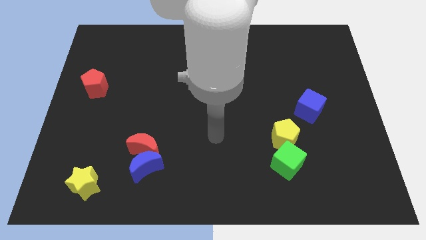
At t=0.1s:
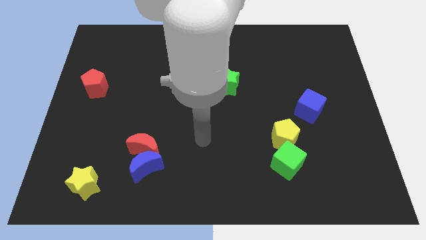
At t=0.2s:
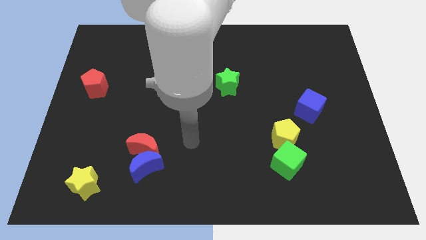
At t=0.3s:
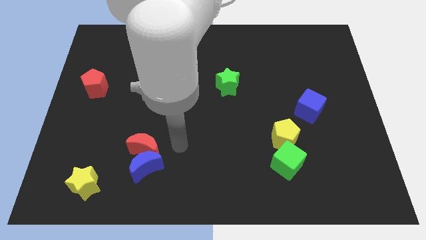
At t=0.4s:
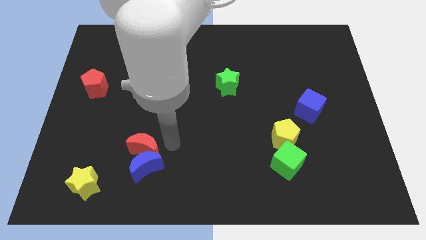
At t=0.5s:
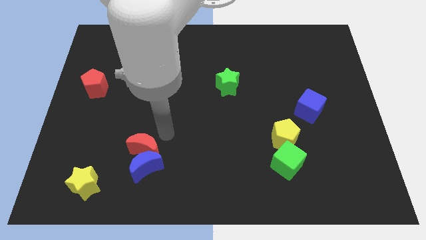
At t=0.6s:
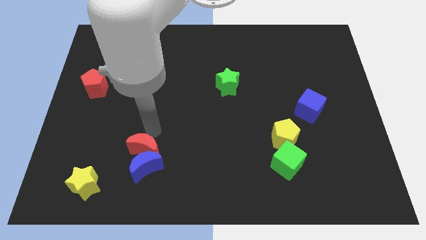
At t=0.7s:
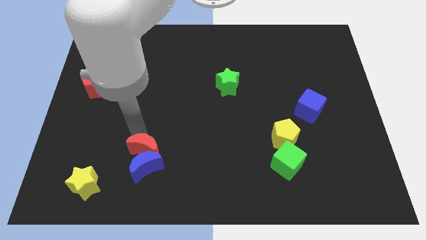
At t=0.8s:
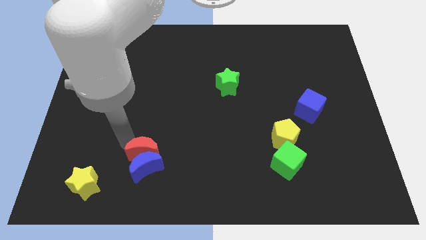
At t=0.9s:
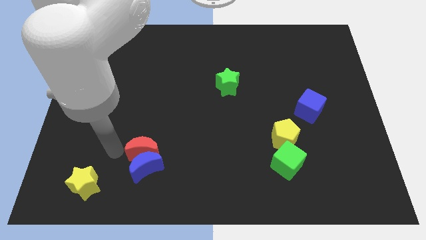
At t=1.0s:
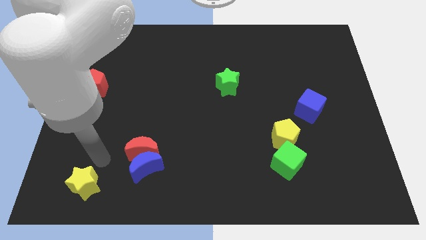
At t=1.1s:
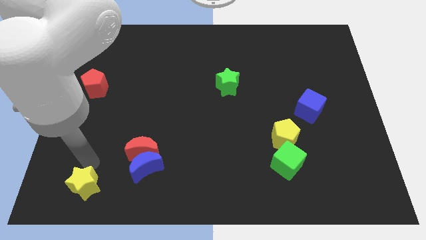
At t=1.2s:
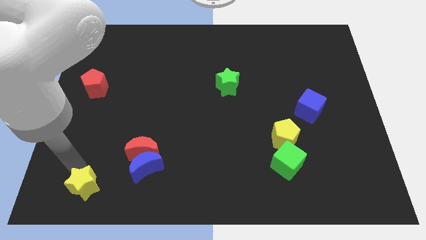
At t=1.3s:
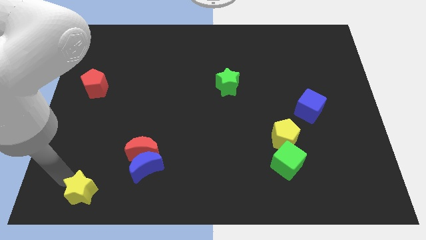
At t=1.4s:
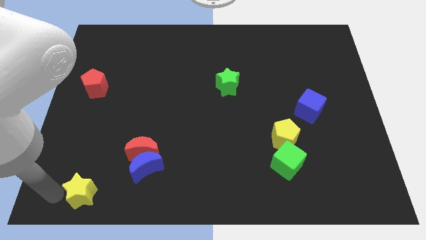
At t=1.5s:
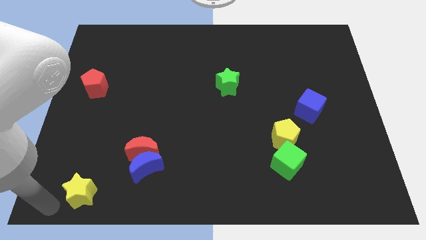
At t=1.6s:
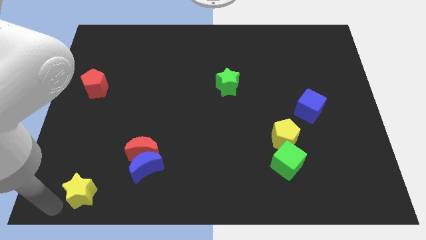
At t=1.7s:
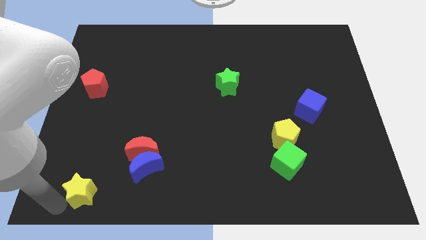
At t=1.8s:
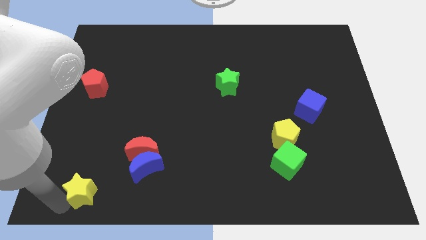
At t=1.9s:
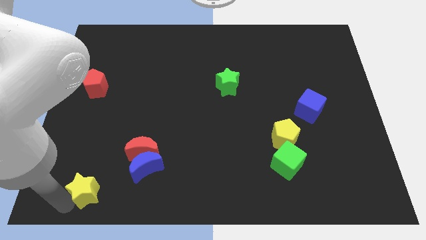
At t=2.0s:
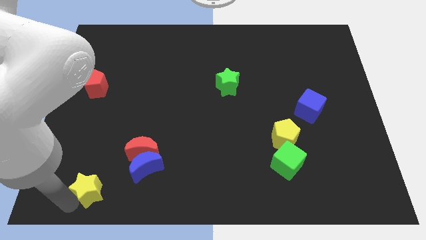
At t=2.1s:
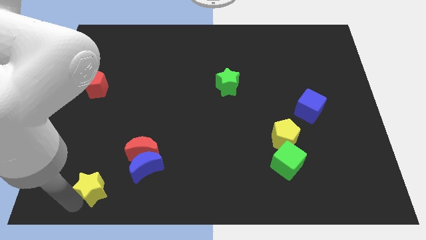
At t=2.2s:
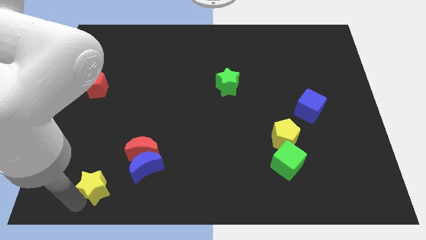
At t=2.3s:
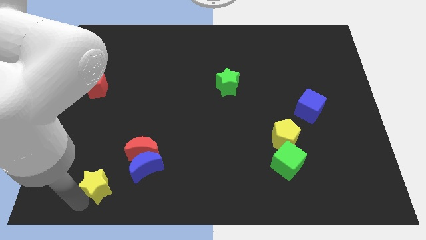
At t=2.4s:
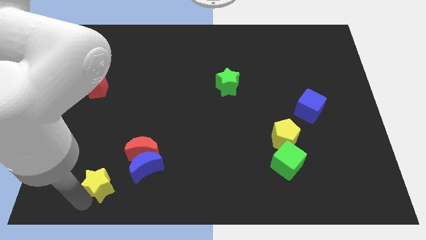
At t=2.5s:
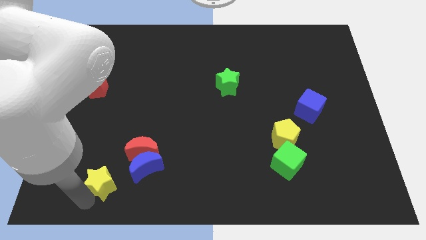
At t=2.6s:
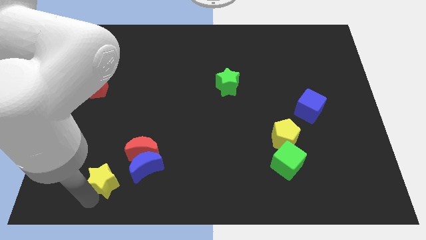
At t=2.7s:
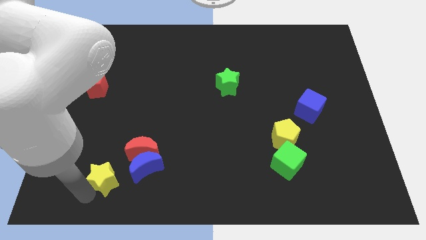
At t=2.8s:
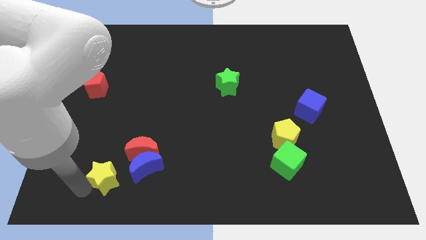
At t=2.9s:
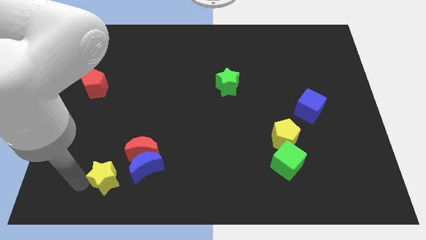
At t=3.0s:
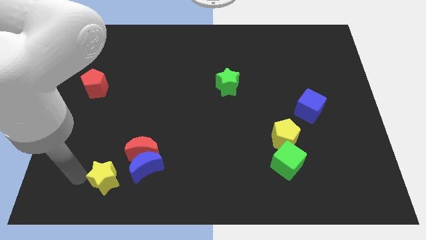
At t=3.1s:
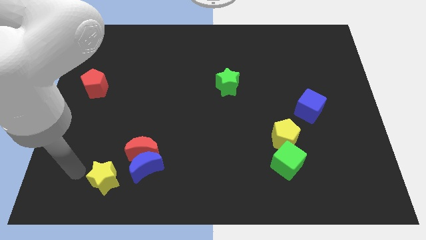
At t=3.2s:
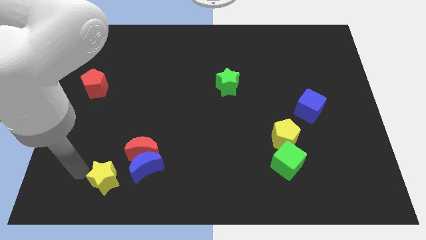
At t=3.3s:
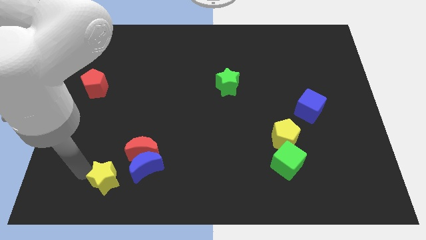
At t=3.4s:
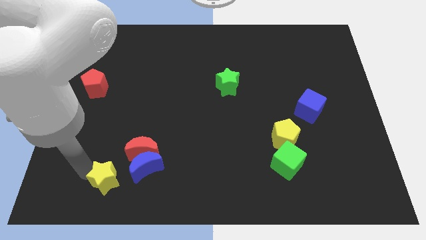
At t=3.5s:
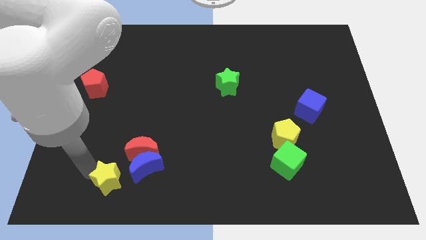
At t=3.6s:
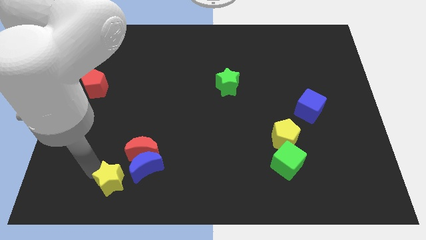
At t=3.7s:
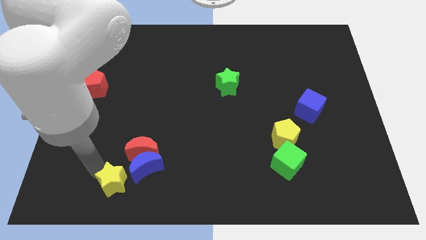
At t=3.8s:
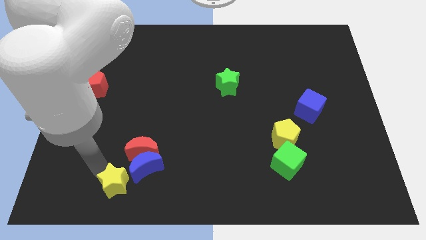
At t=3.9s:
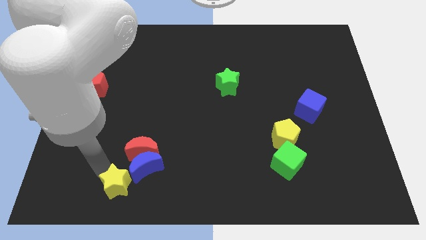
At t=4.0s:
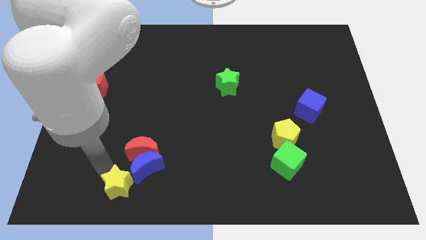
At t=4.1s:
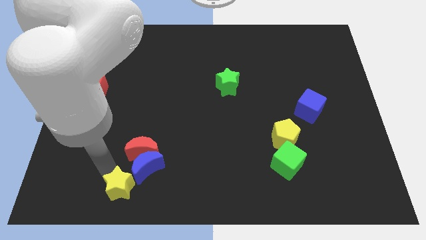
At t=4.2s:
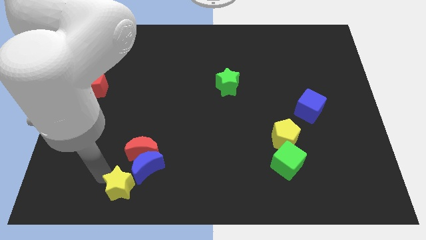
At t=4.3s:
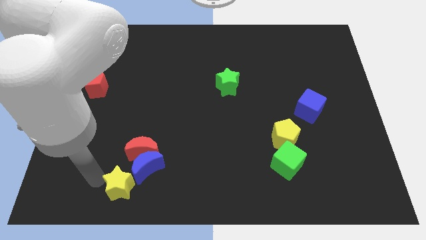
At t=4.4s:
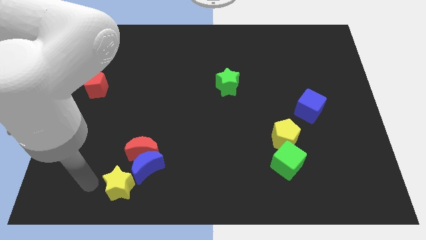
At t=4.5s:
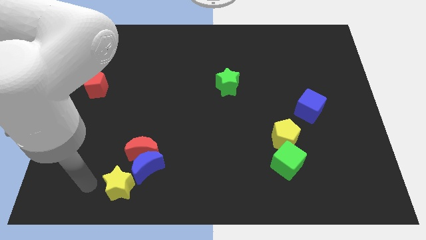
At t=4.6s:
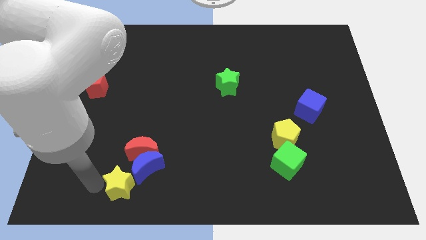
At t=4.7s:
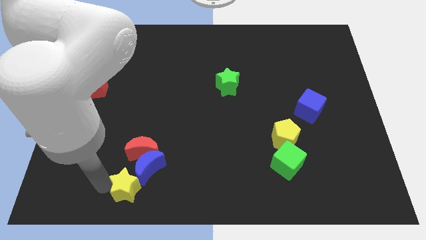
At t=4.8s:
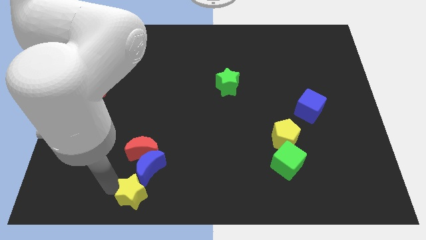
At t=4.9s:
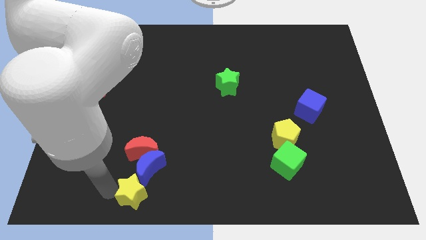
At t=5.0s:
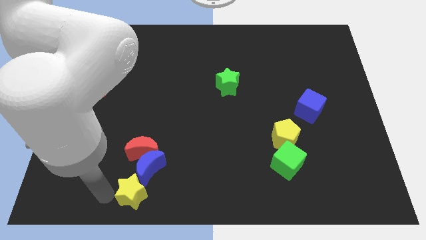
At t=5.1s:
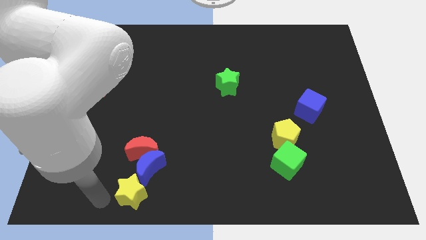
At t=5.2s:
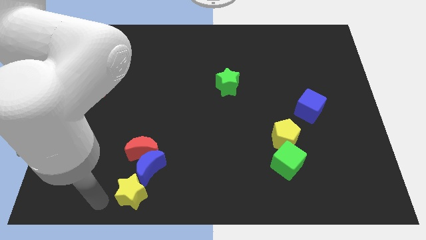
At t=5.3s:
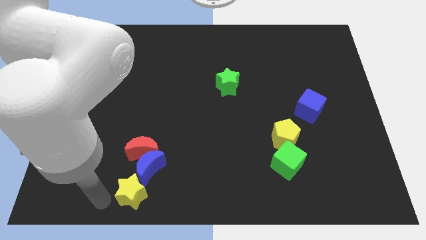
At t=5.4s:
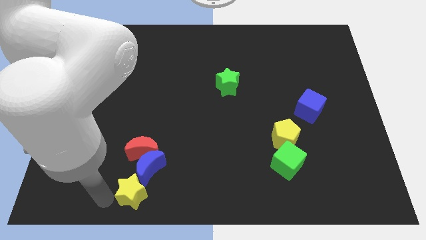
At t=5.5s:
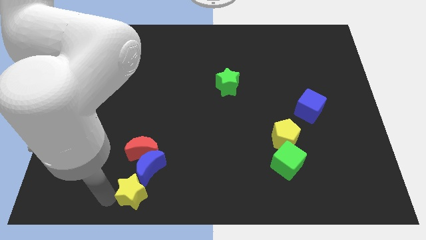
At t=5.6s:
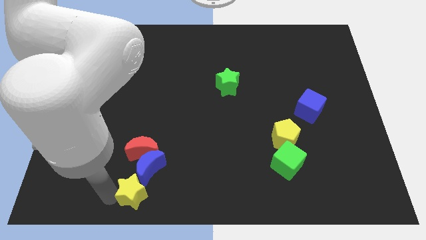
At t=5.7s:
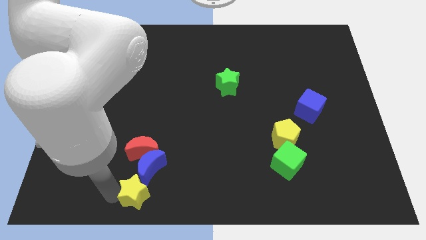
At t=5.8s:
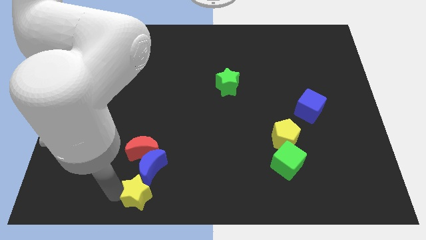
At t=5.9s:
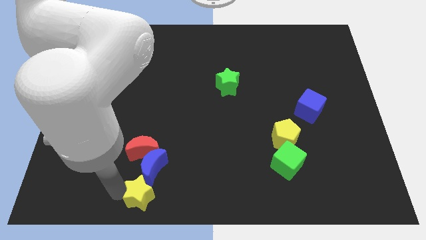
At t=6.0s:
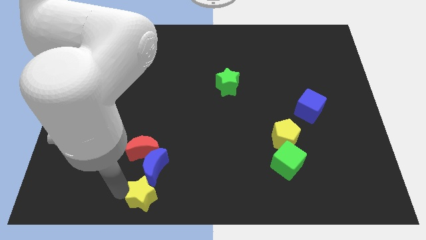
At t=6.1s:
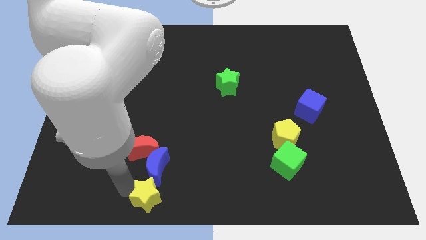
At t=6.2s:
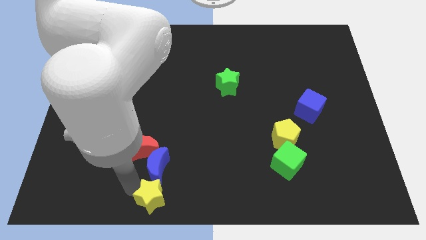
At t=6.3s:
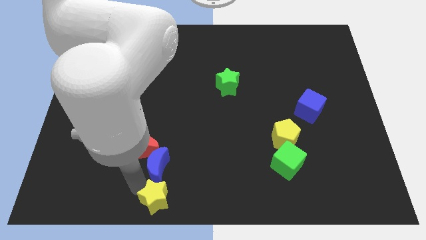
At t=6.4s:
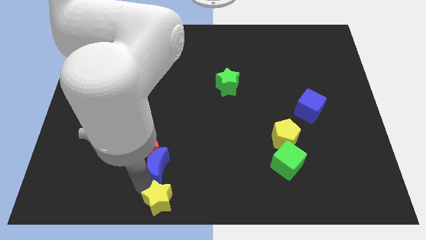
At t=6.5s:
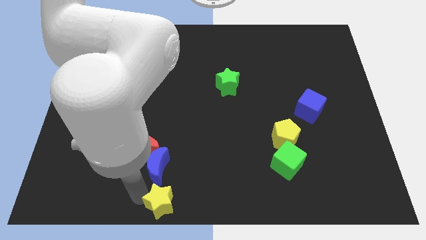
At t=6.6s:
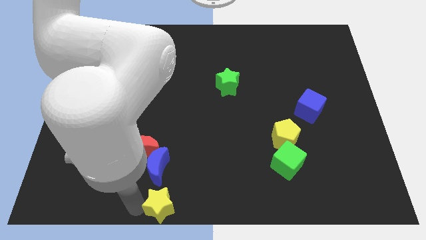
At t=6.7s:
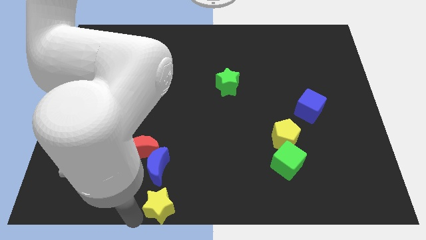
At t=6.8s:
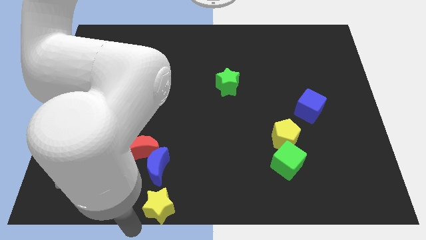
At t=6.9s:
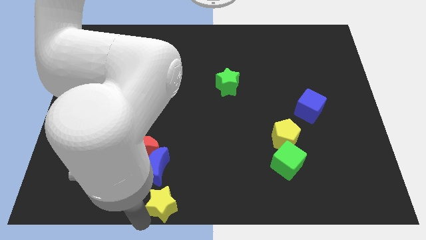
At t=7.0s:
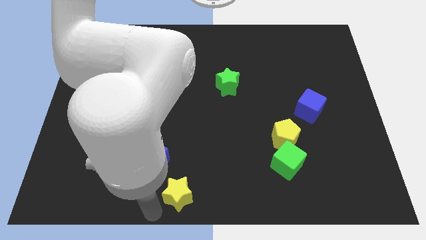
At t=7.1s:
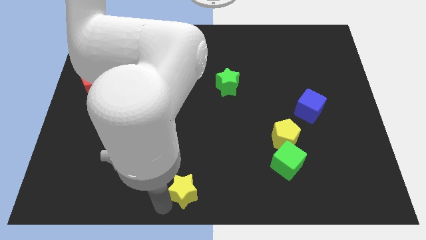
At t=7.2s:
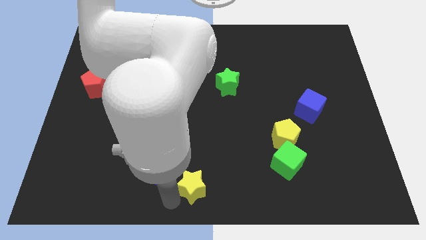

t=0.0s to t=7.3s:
slide the yellow star just right of the blue moon

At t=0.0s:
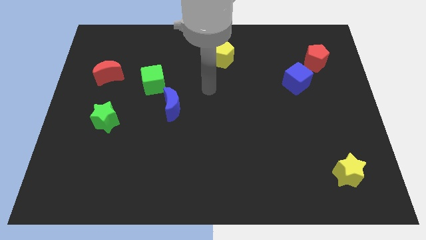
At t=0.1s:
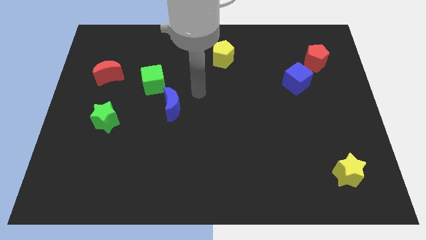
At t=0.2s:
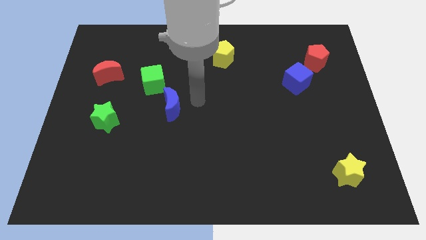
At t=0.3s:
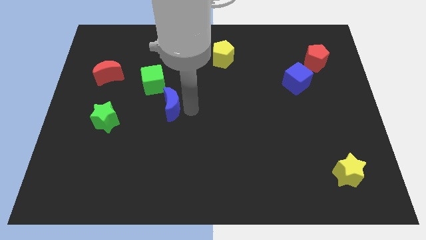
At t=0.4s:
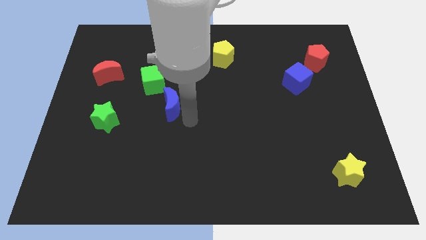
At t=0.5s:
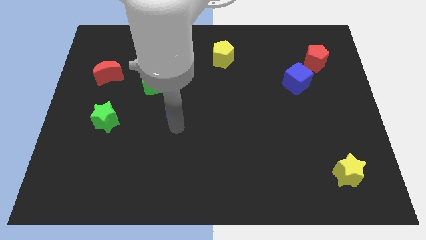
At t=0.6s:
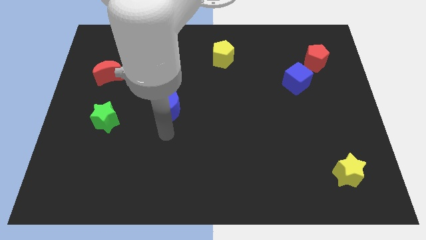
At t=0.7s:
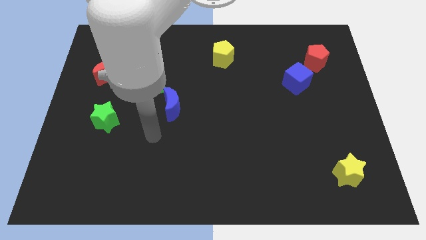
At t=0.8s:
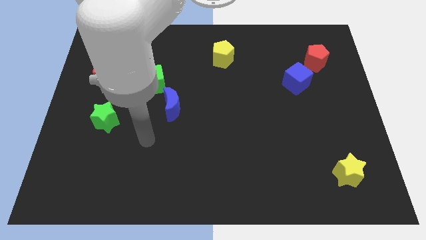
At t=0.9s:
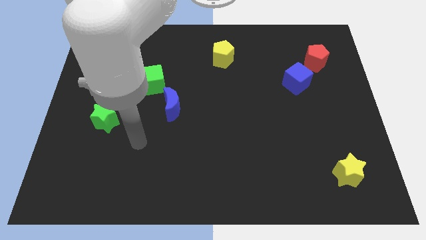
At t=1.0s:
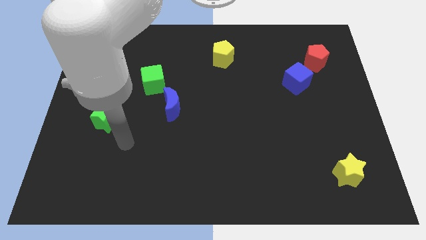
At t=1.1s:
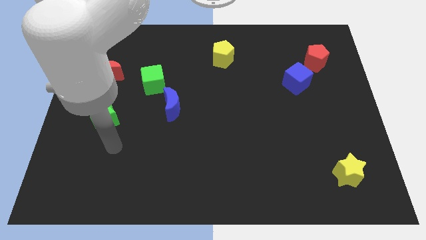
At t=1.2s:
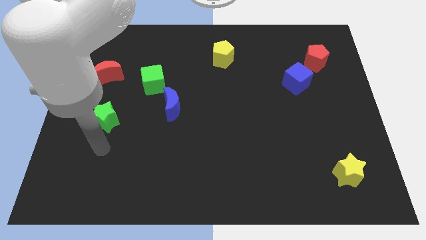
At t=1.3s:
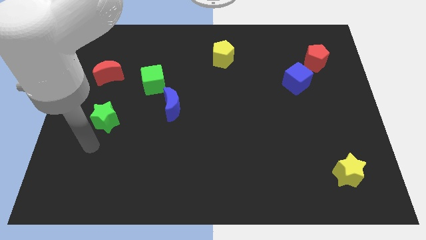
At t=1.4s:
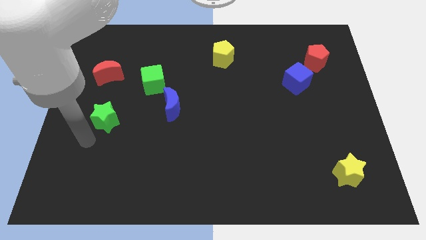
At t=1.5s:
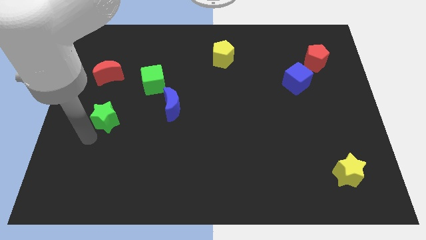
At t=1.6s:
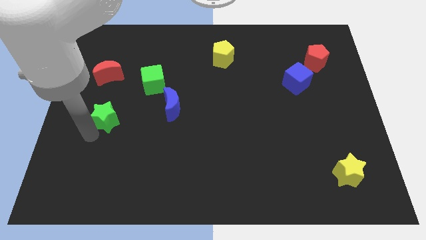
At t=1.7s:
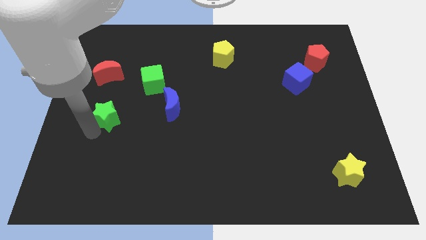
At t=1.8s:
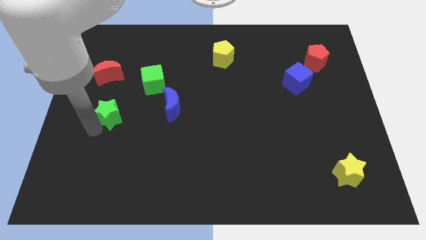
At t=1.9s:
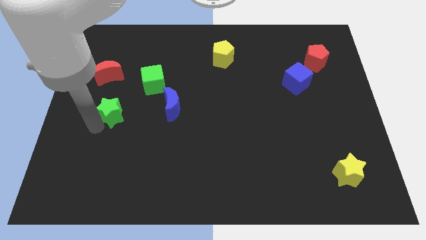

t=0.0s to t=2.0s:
slide the green star to the bottom left of the green cube
